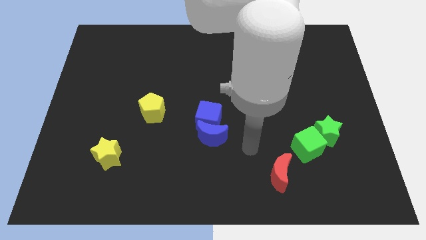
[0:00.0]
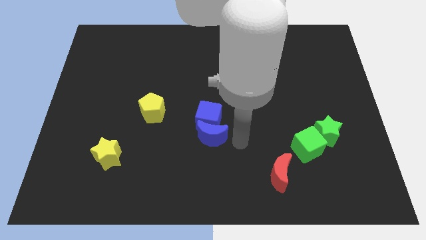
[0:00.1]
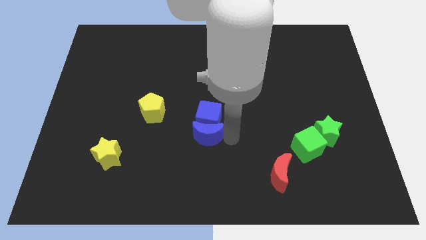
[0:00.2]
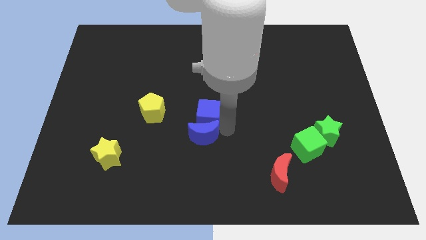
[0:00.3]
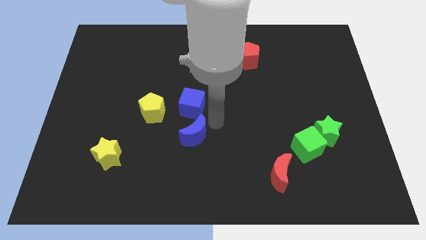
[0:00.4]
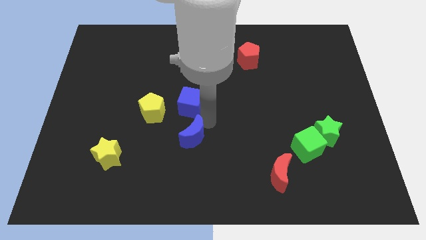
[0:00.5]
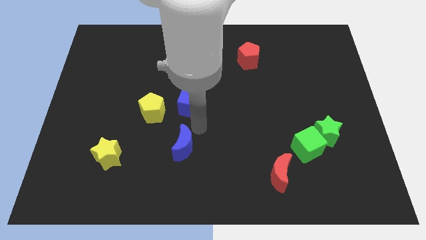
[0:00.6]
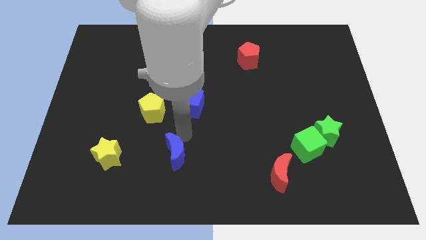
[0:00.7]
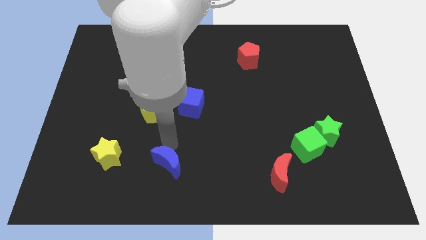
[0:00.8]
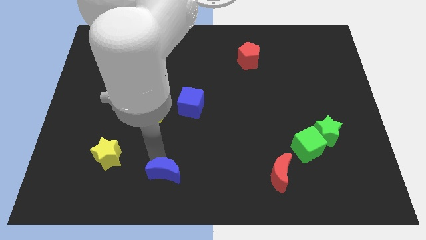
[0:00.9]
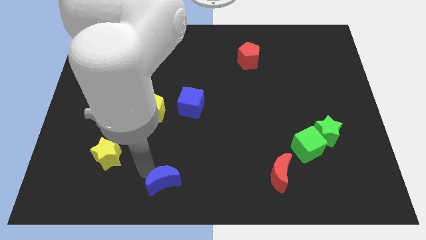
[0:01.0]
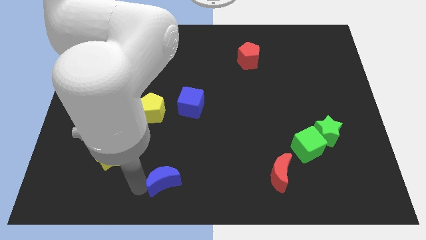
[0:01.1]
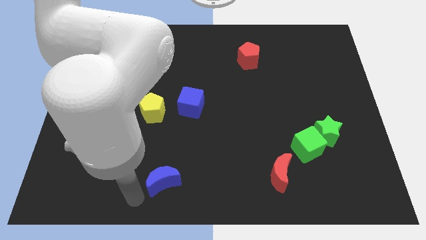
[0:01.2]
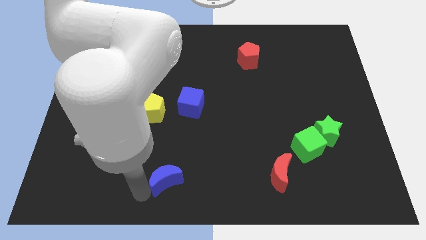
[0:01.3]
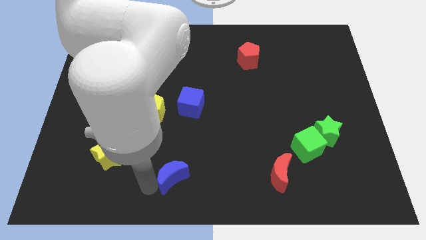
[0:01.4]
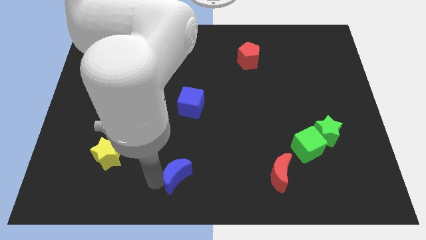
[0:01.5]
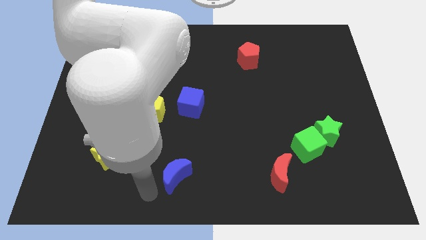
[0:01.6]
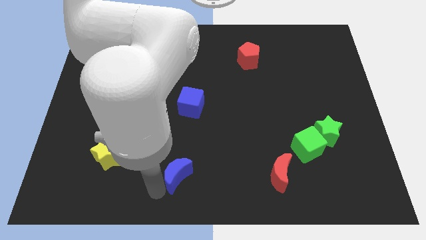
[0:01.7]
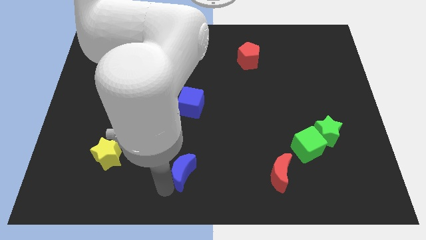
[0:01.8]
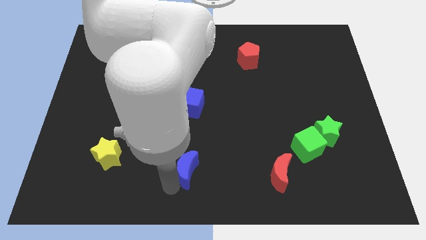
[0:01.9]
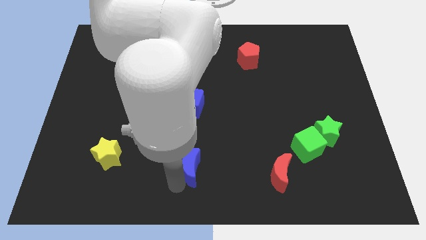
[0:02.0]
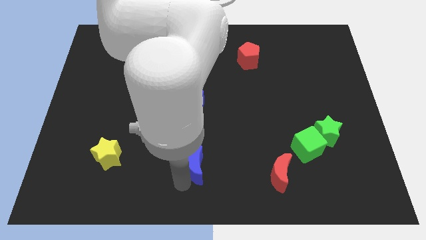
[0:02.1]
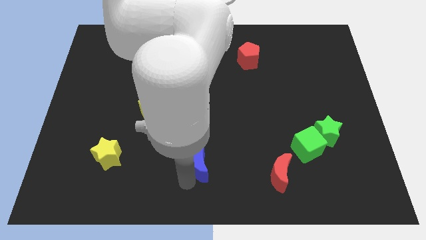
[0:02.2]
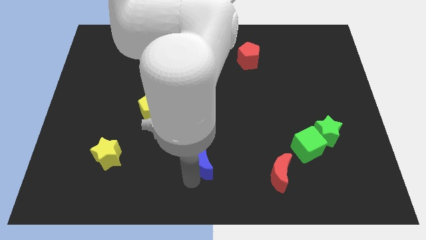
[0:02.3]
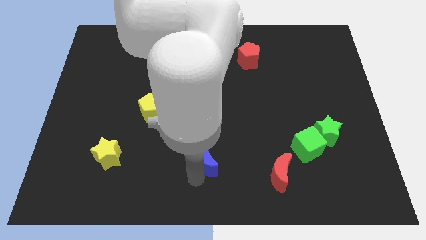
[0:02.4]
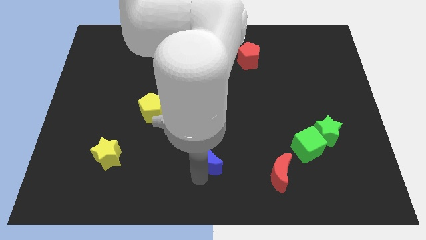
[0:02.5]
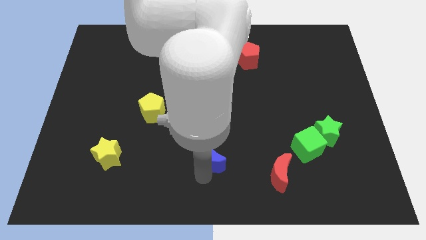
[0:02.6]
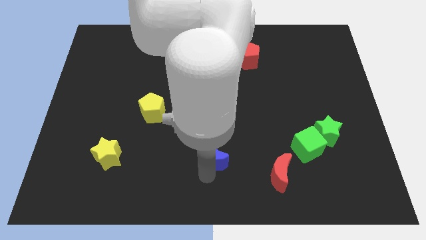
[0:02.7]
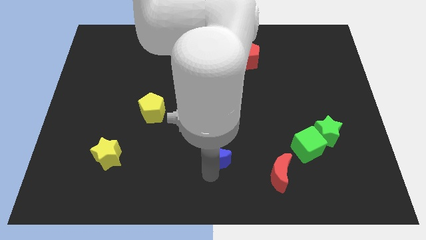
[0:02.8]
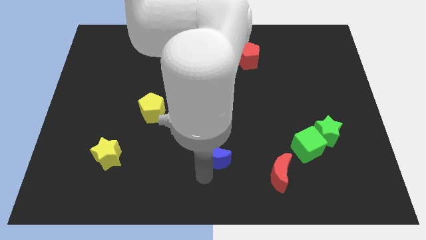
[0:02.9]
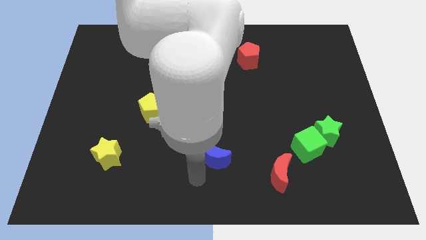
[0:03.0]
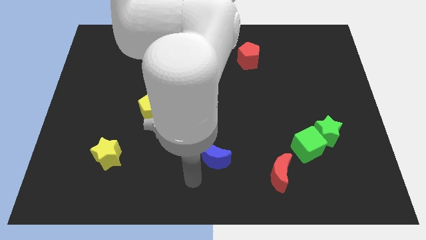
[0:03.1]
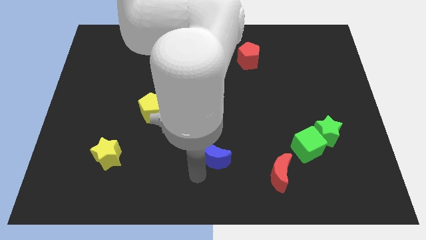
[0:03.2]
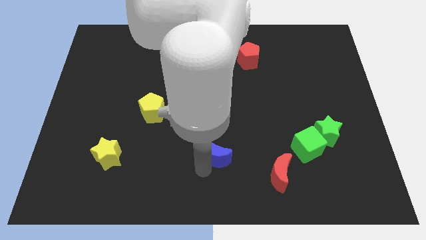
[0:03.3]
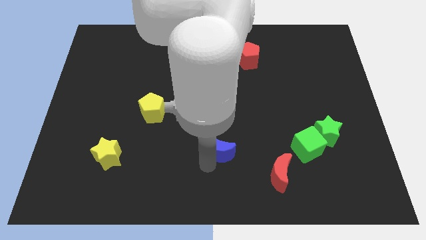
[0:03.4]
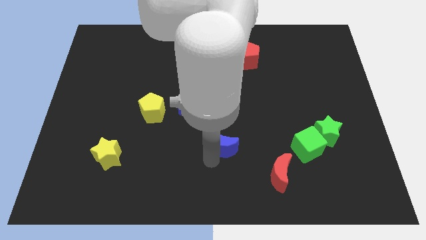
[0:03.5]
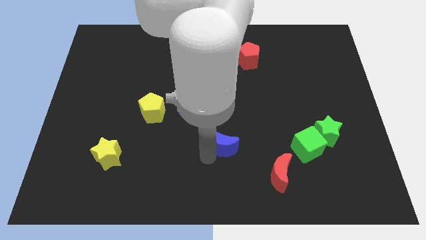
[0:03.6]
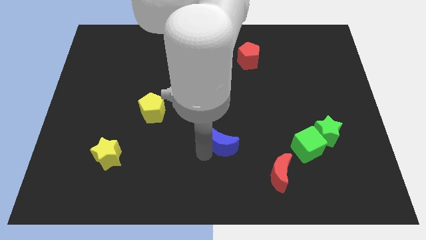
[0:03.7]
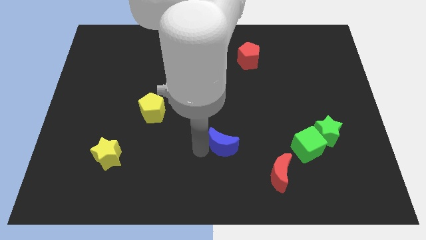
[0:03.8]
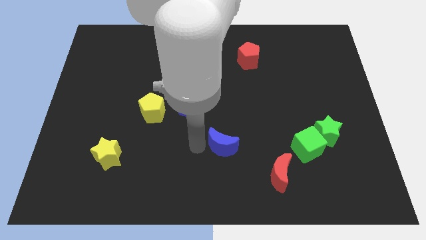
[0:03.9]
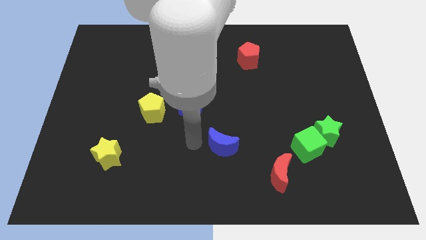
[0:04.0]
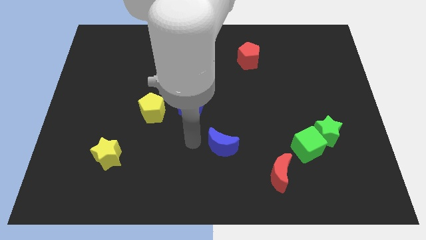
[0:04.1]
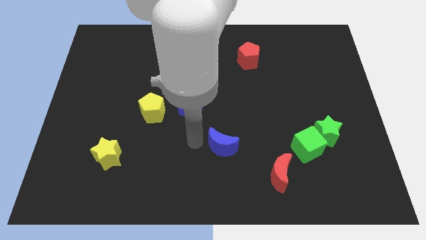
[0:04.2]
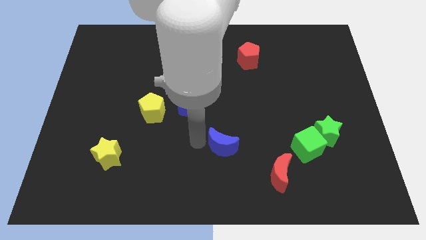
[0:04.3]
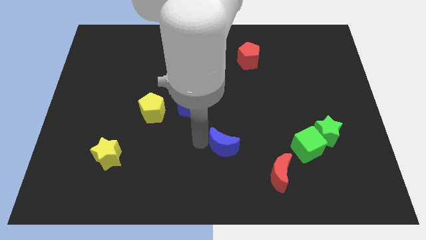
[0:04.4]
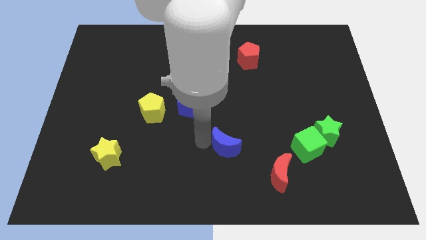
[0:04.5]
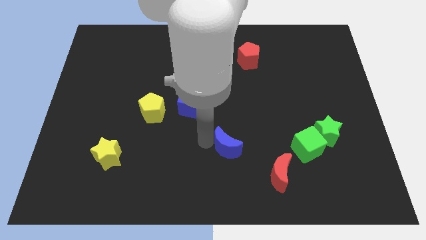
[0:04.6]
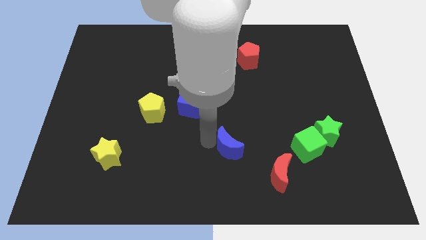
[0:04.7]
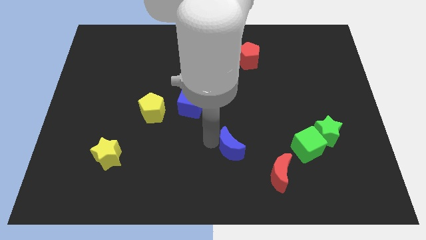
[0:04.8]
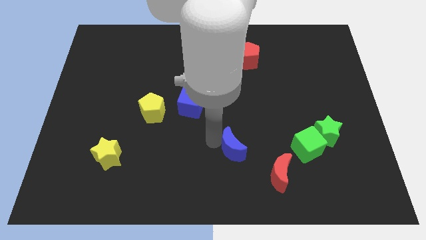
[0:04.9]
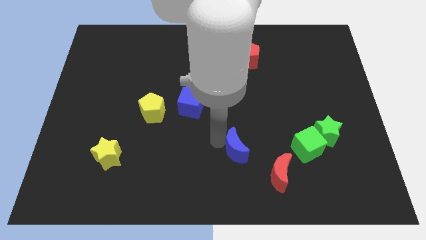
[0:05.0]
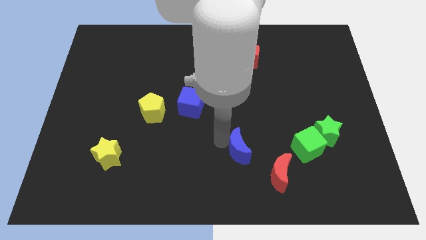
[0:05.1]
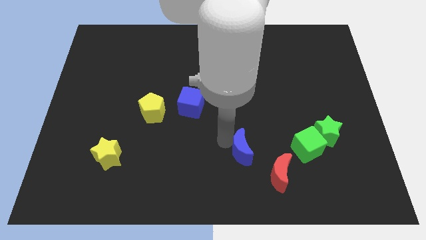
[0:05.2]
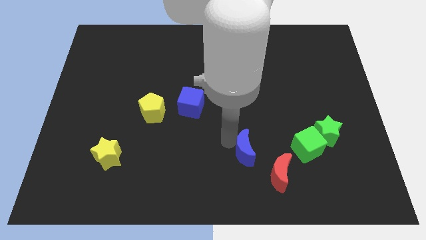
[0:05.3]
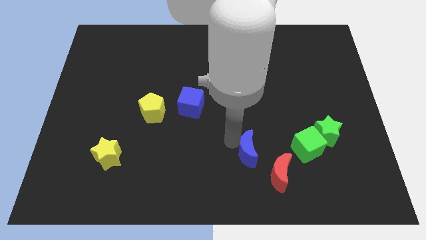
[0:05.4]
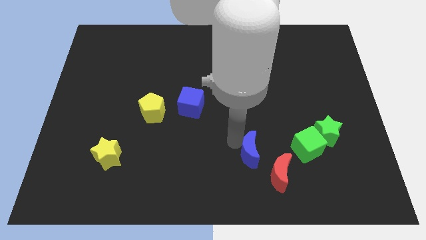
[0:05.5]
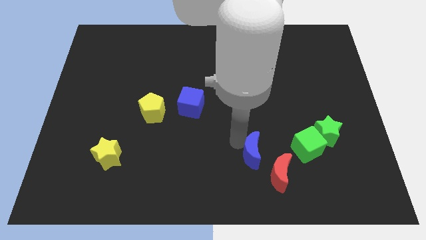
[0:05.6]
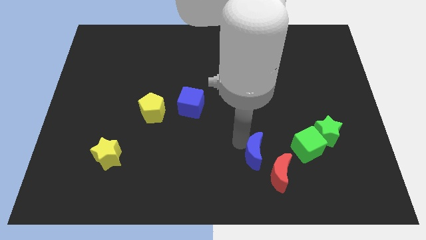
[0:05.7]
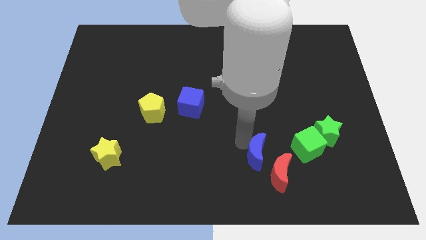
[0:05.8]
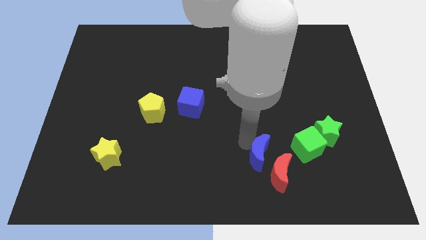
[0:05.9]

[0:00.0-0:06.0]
put the blue moon towards the red moon

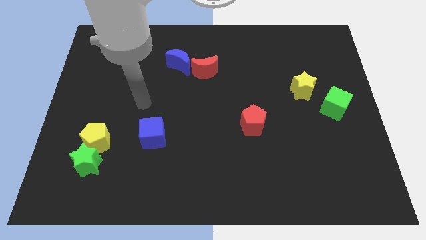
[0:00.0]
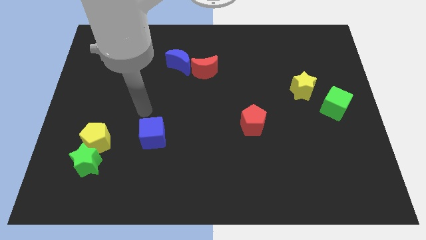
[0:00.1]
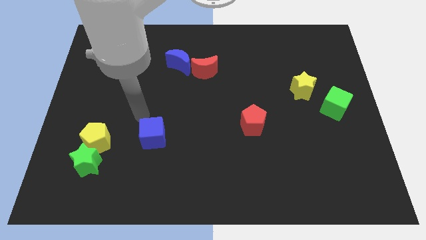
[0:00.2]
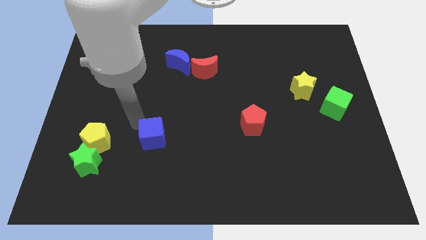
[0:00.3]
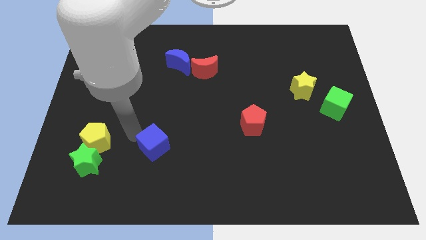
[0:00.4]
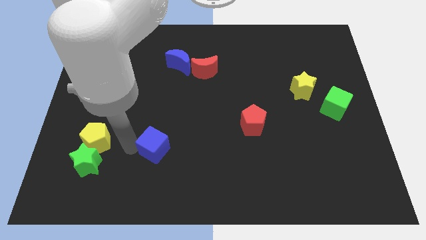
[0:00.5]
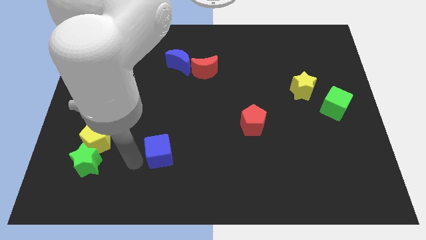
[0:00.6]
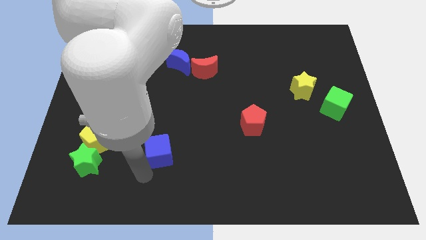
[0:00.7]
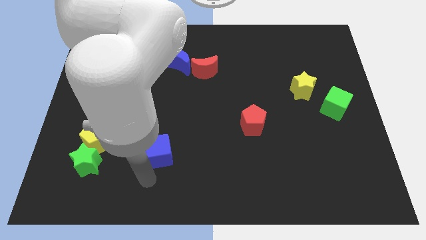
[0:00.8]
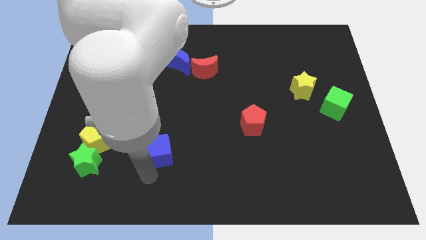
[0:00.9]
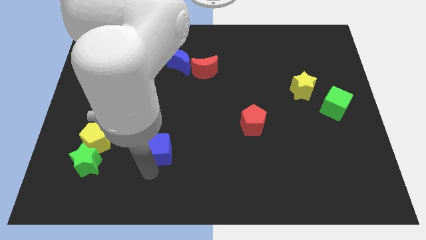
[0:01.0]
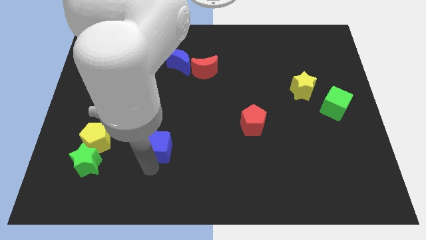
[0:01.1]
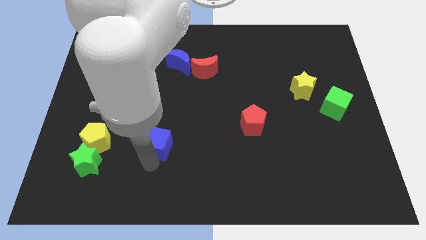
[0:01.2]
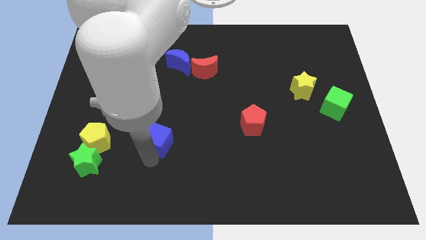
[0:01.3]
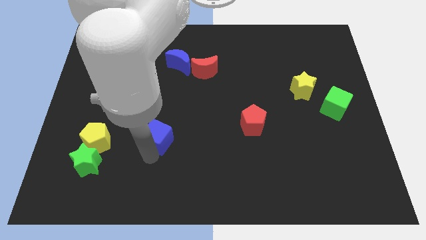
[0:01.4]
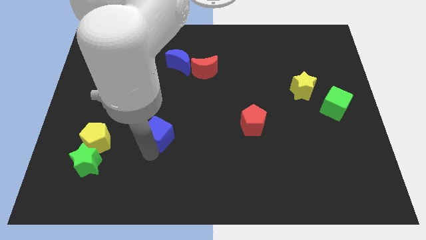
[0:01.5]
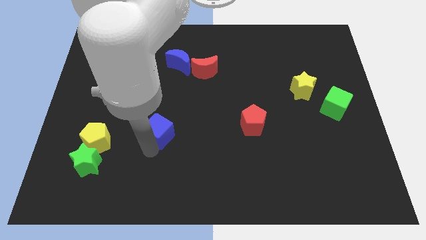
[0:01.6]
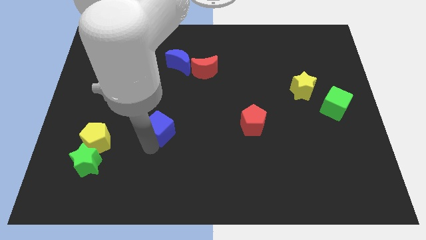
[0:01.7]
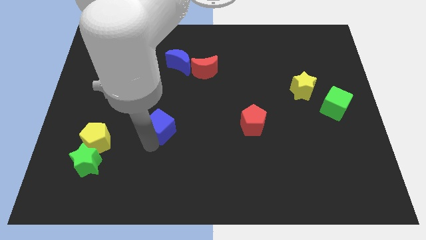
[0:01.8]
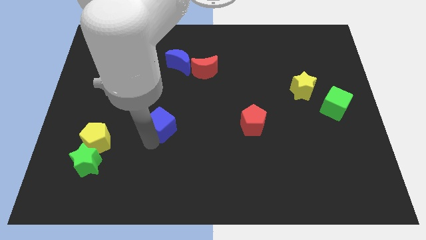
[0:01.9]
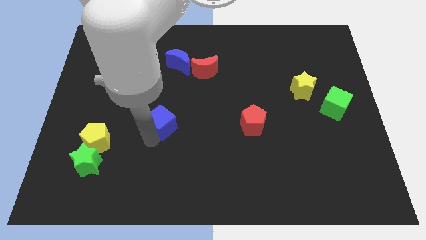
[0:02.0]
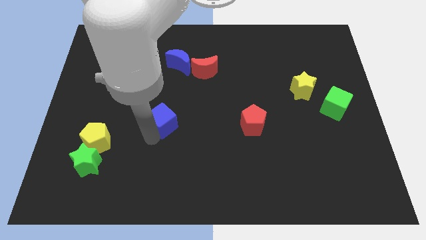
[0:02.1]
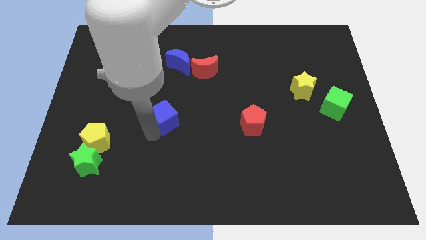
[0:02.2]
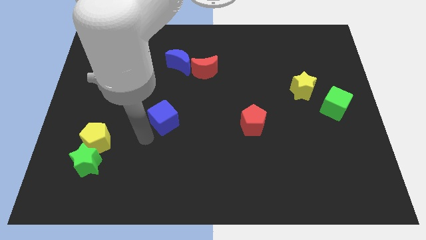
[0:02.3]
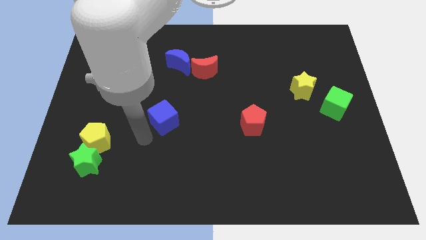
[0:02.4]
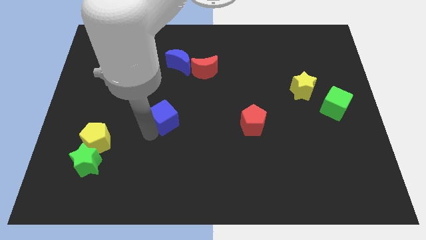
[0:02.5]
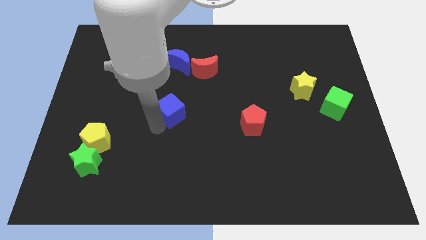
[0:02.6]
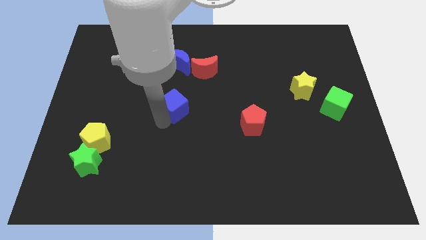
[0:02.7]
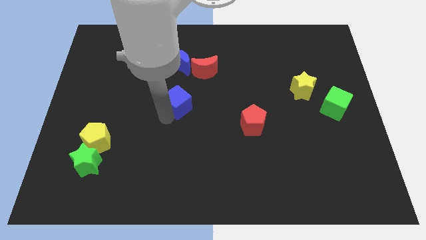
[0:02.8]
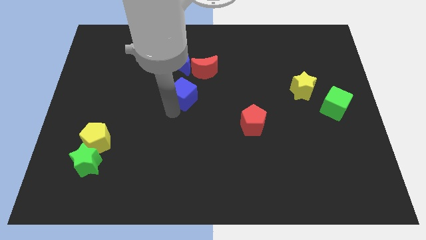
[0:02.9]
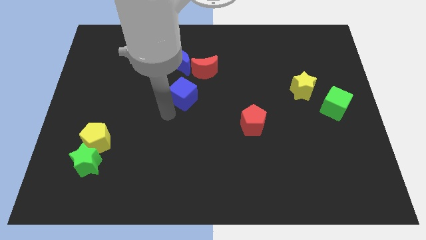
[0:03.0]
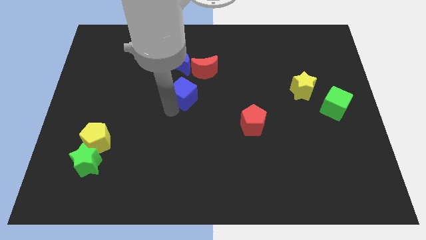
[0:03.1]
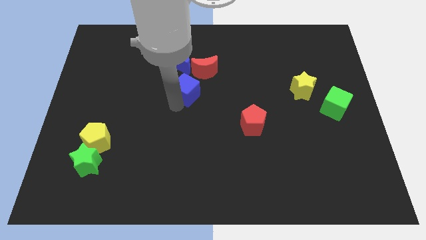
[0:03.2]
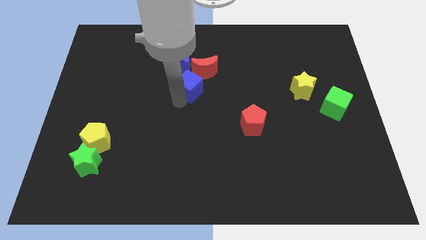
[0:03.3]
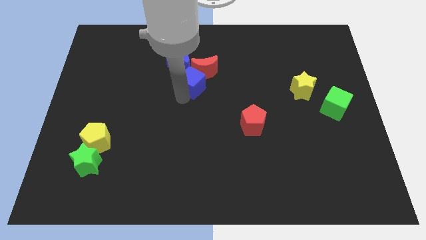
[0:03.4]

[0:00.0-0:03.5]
move the blue cube next to the red moon
